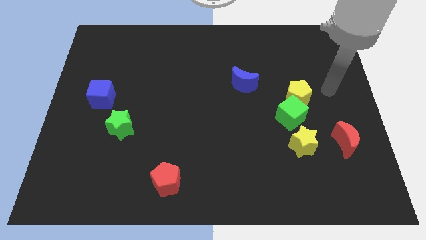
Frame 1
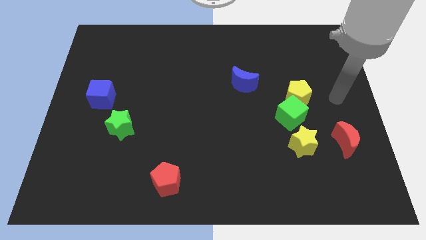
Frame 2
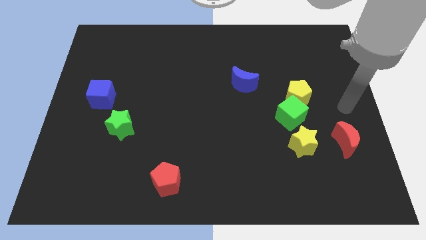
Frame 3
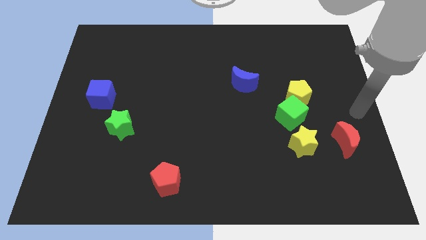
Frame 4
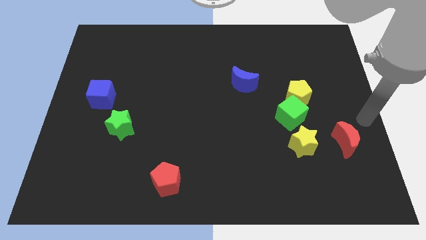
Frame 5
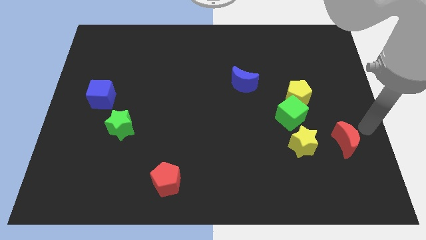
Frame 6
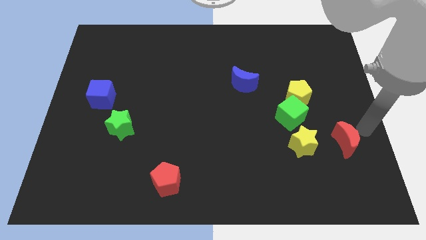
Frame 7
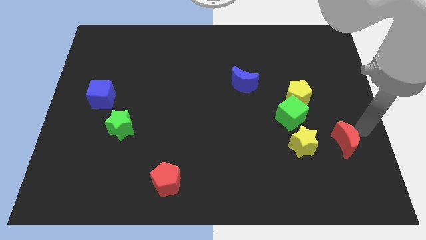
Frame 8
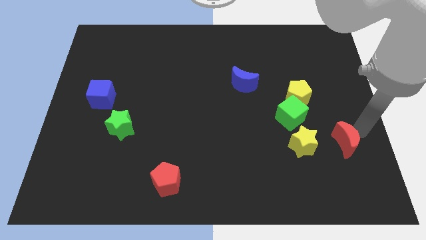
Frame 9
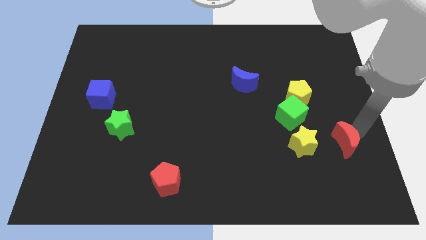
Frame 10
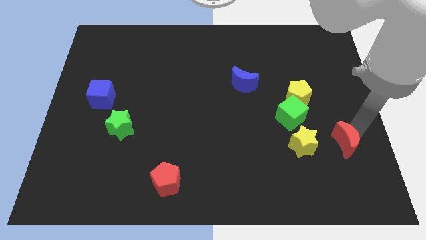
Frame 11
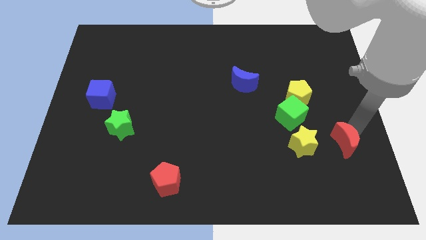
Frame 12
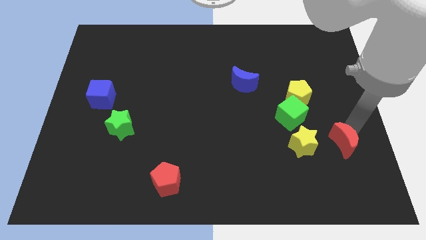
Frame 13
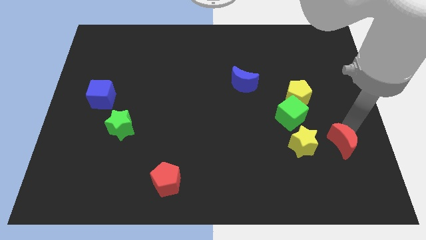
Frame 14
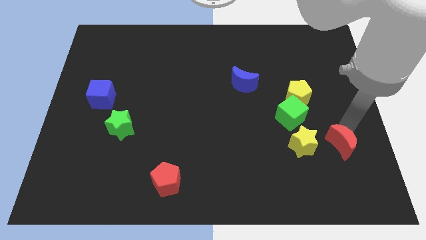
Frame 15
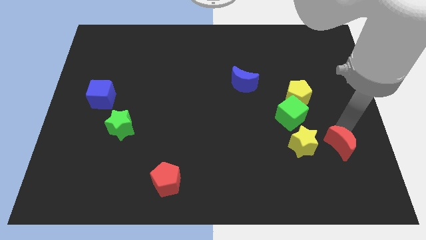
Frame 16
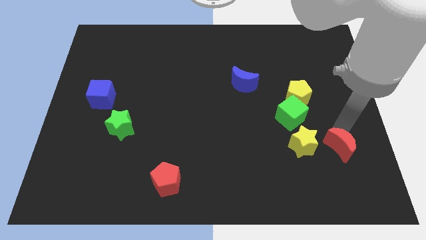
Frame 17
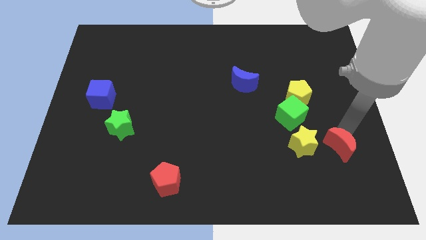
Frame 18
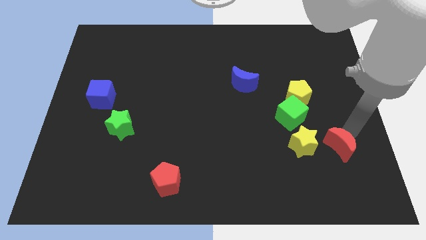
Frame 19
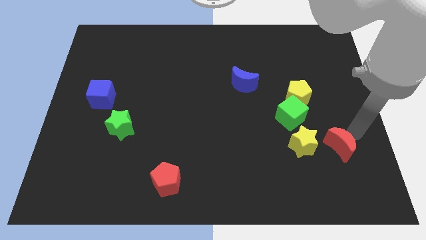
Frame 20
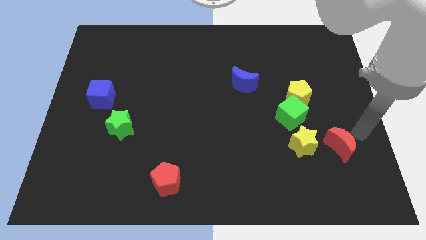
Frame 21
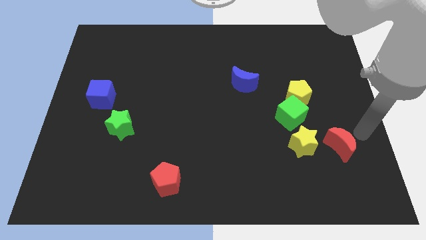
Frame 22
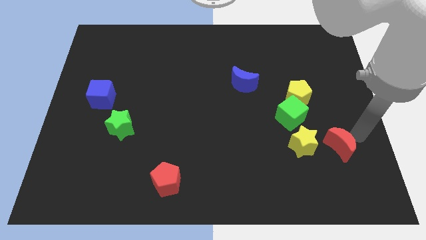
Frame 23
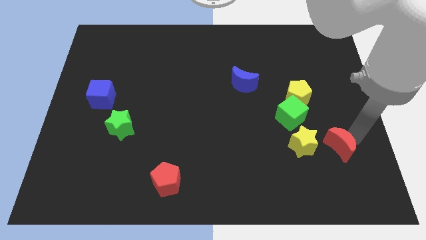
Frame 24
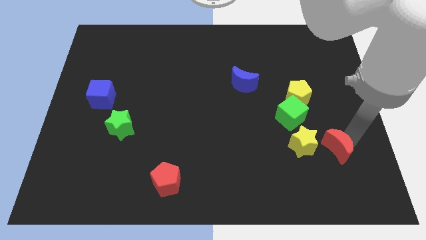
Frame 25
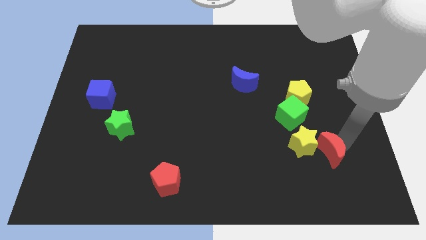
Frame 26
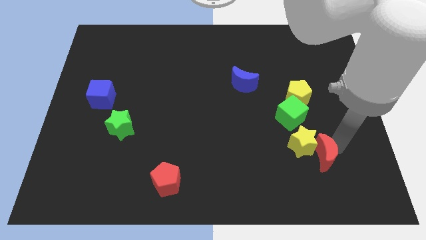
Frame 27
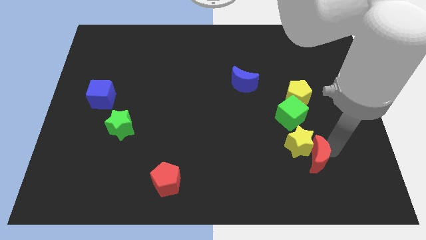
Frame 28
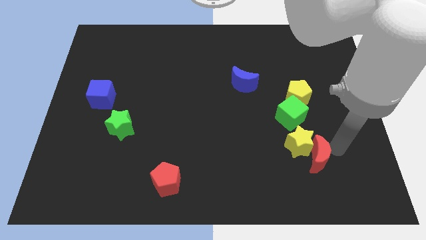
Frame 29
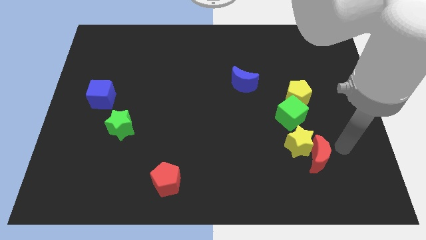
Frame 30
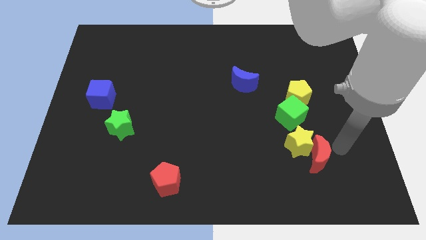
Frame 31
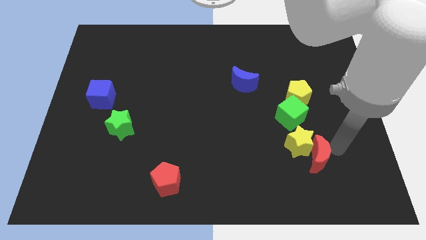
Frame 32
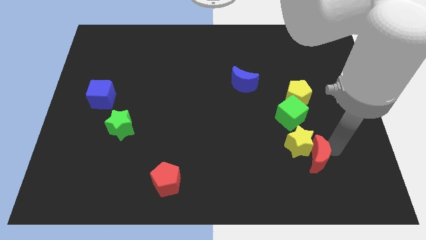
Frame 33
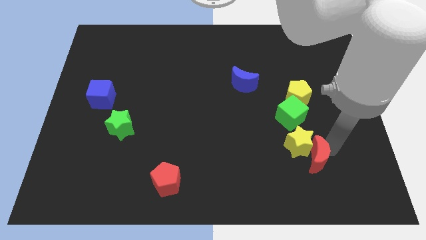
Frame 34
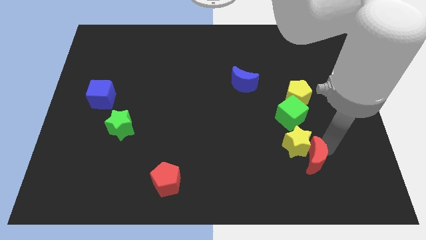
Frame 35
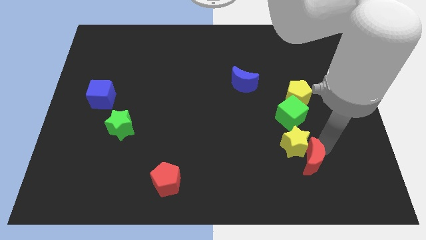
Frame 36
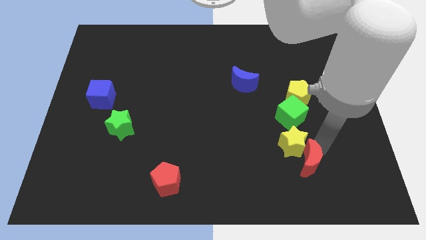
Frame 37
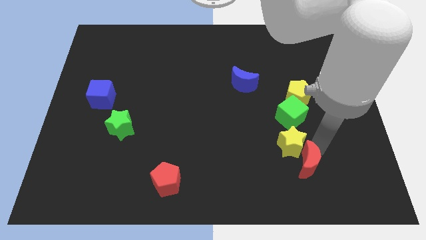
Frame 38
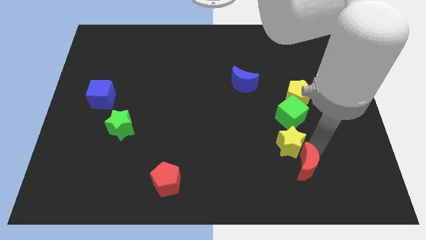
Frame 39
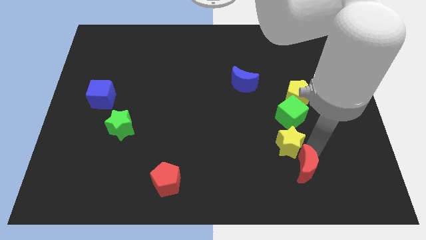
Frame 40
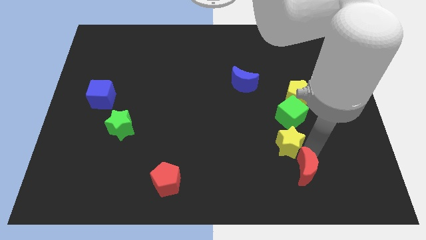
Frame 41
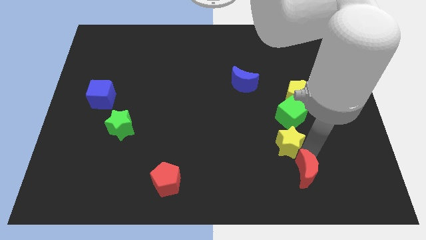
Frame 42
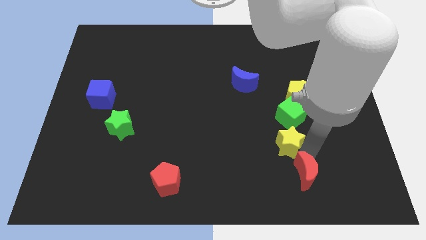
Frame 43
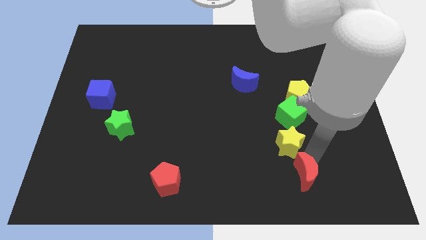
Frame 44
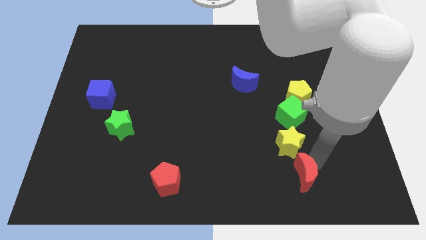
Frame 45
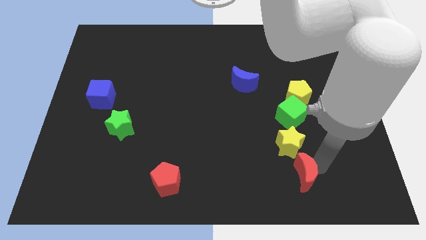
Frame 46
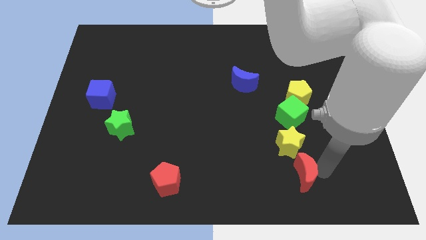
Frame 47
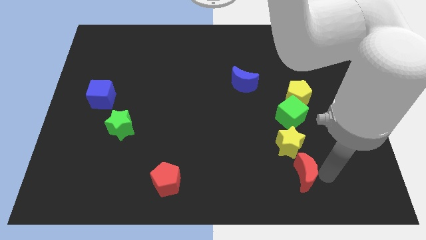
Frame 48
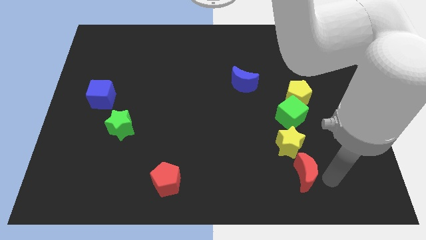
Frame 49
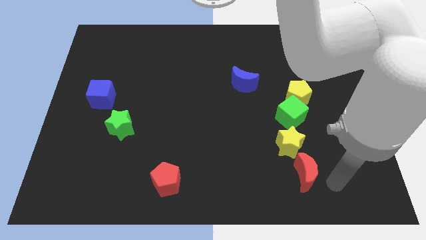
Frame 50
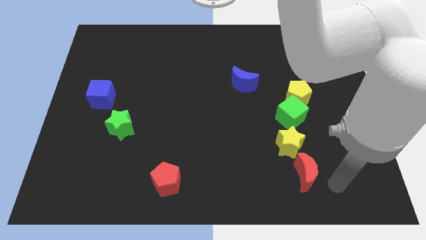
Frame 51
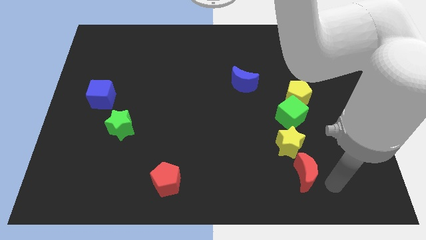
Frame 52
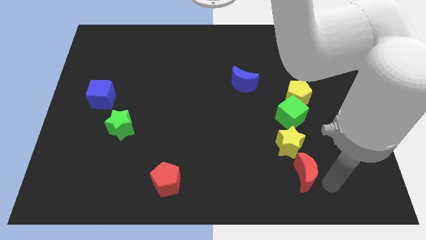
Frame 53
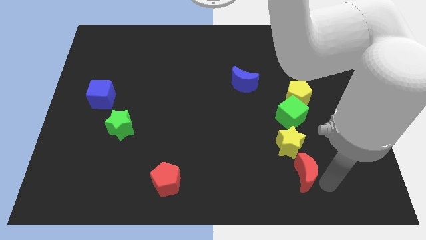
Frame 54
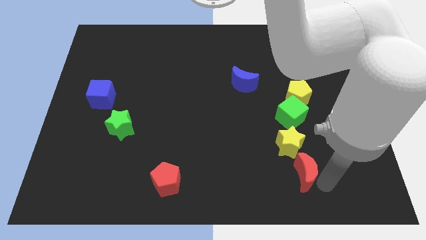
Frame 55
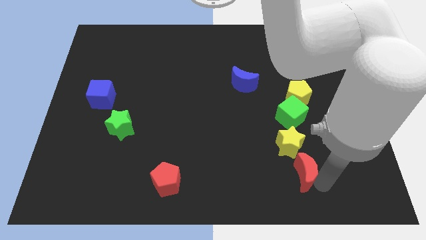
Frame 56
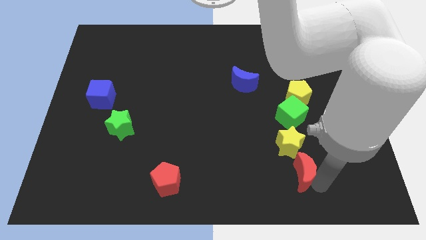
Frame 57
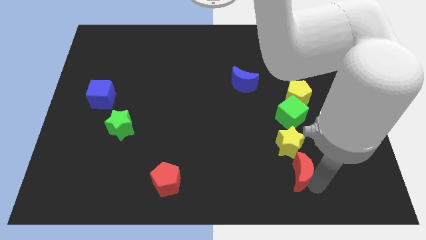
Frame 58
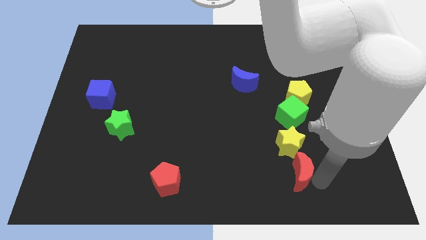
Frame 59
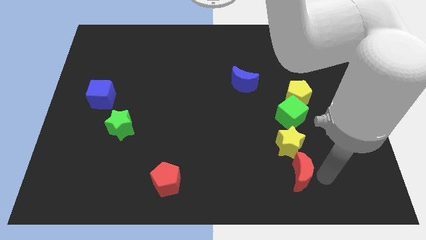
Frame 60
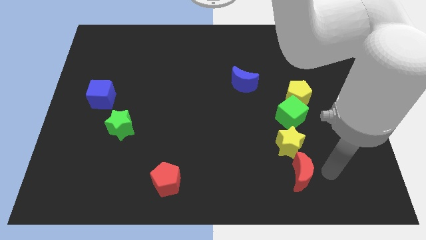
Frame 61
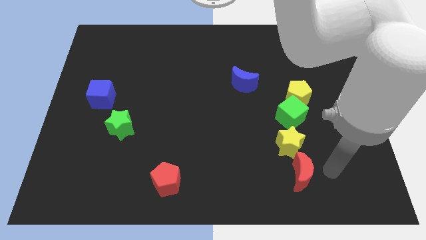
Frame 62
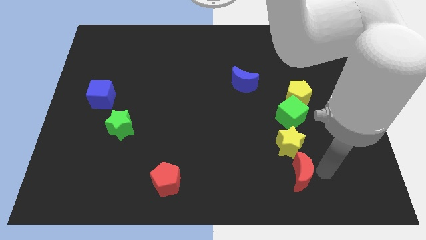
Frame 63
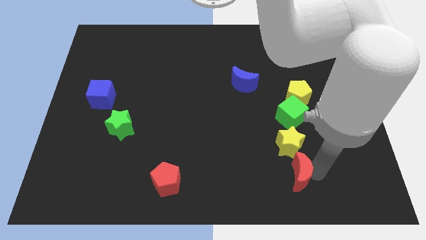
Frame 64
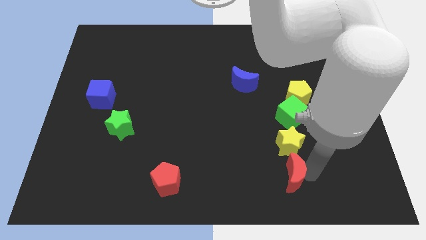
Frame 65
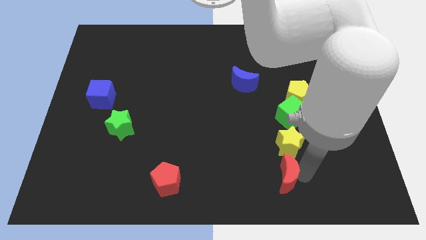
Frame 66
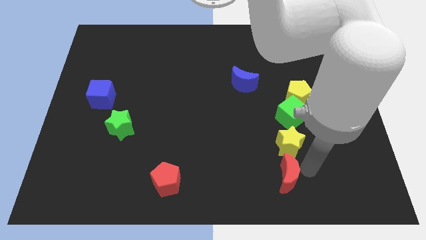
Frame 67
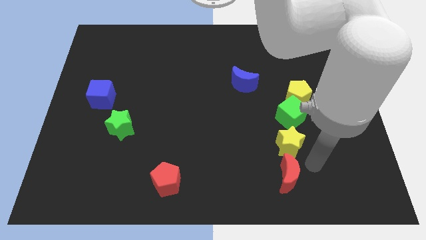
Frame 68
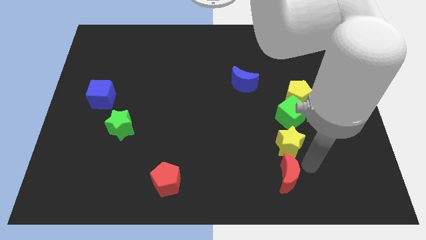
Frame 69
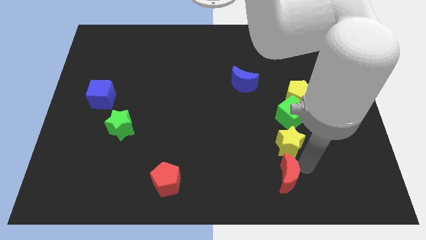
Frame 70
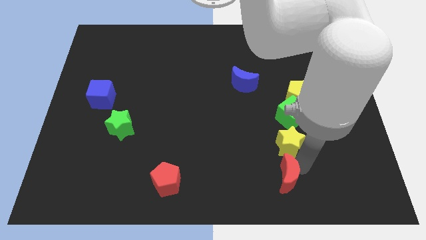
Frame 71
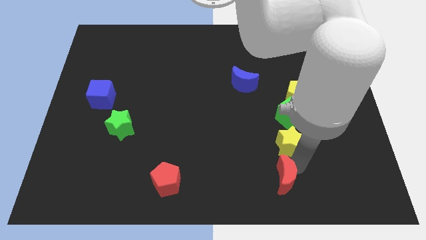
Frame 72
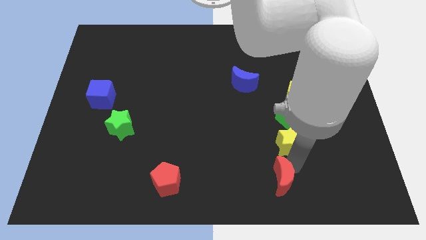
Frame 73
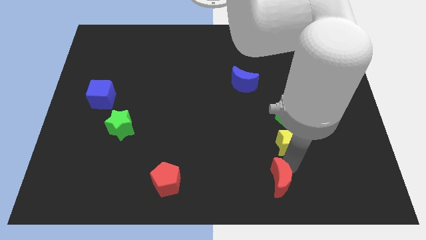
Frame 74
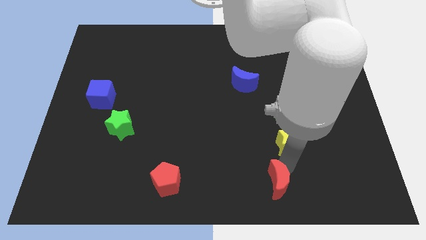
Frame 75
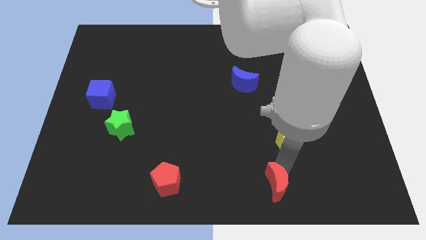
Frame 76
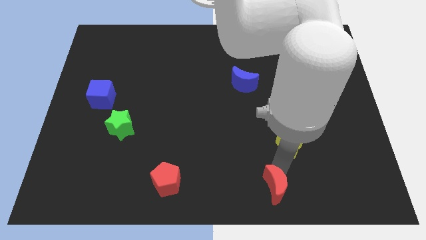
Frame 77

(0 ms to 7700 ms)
slide the red moon to the bottom side
